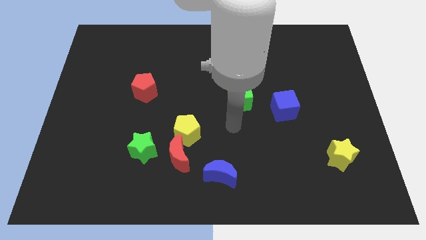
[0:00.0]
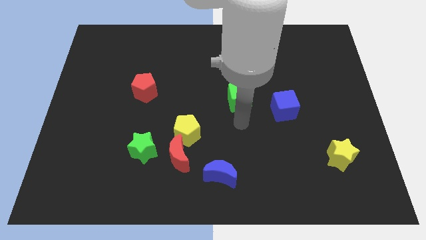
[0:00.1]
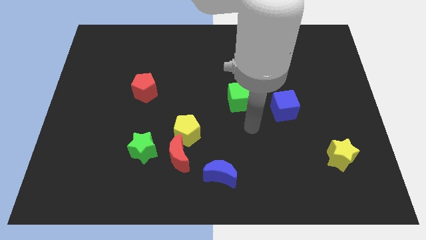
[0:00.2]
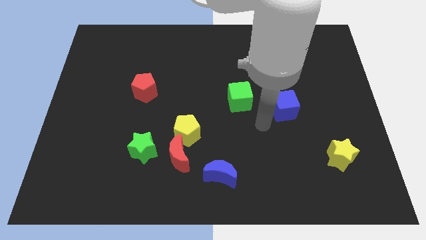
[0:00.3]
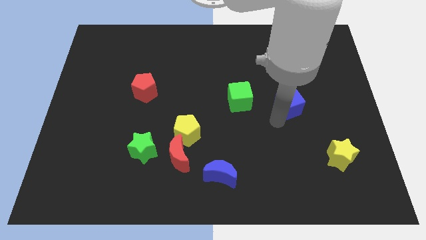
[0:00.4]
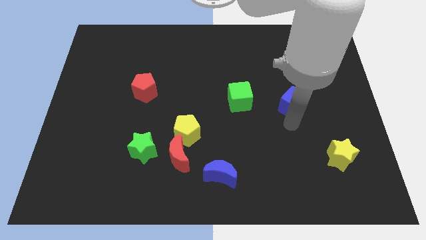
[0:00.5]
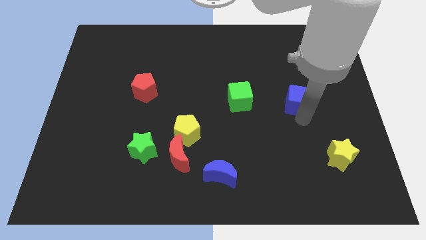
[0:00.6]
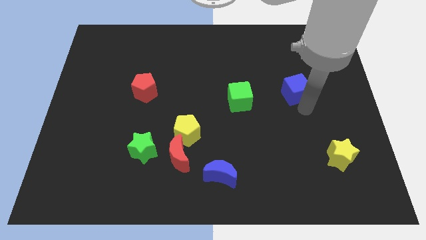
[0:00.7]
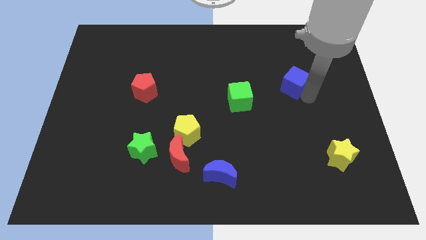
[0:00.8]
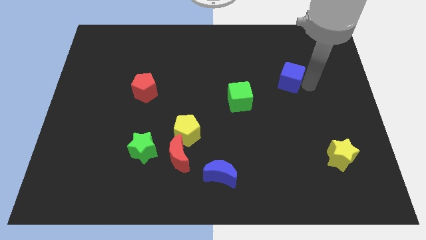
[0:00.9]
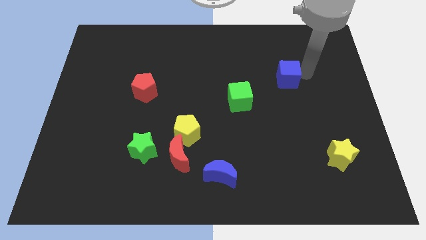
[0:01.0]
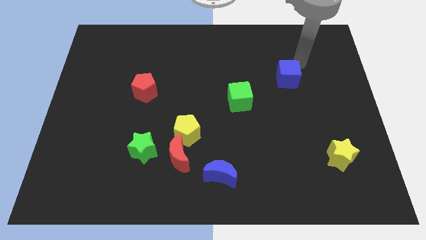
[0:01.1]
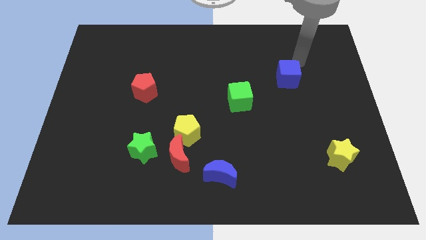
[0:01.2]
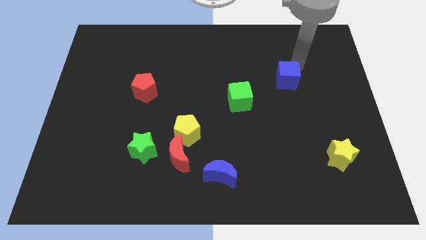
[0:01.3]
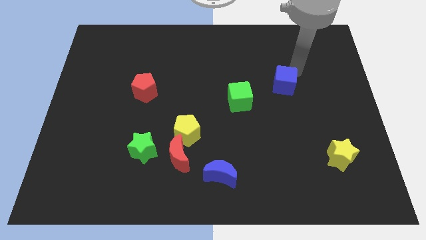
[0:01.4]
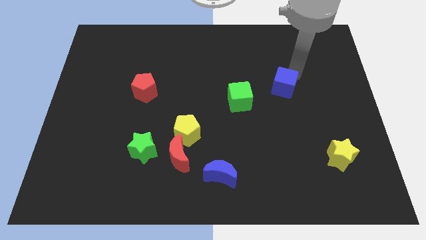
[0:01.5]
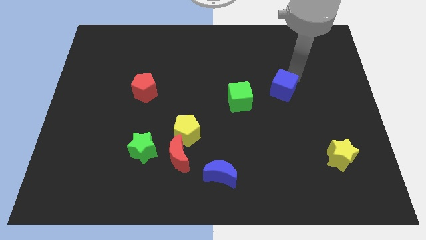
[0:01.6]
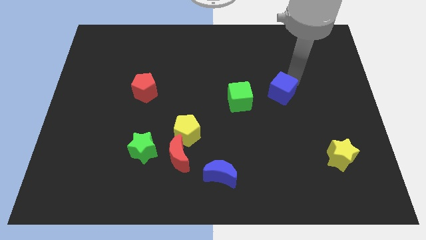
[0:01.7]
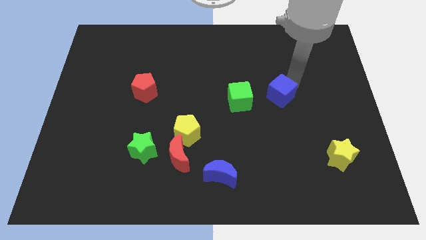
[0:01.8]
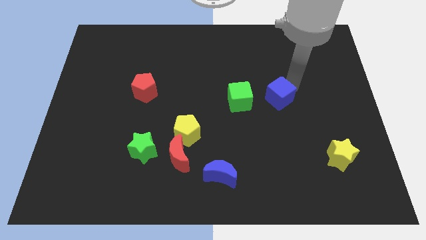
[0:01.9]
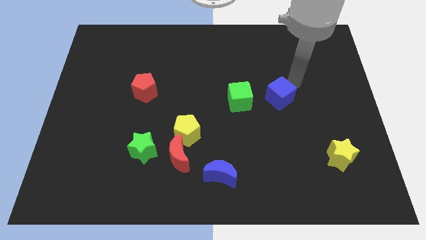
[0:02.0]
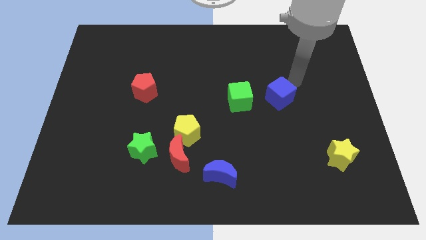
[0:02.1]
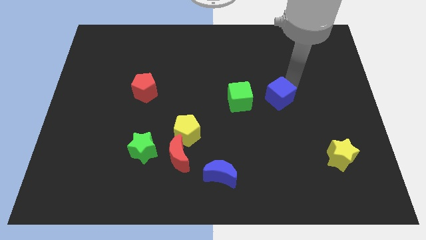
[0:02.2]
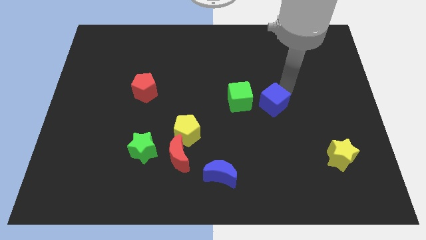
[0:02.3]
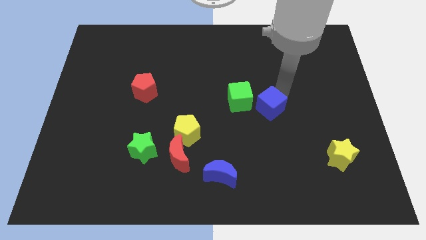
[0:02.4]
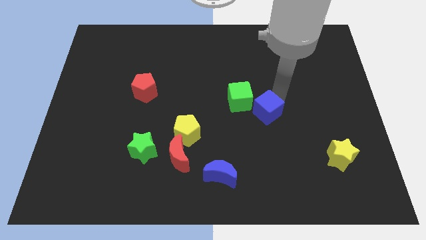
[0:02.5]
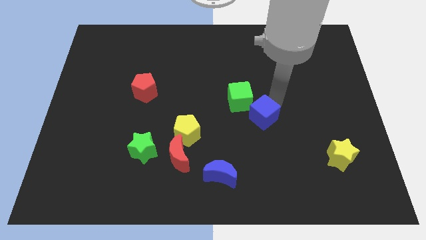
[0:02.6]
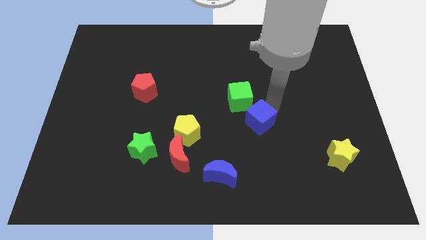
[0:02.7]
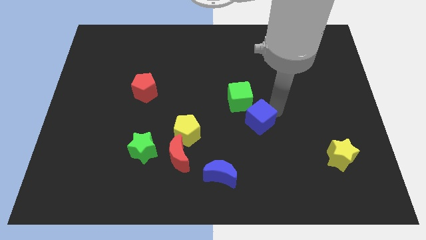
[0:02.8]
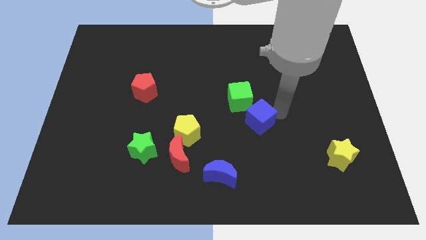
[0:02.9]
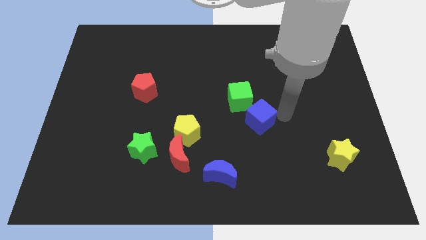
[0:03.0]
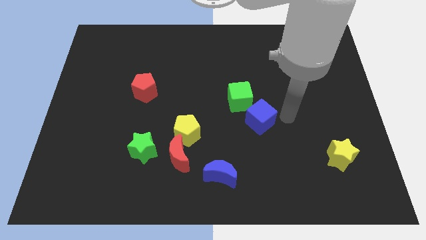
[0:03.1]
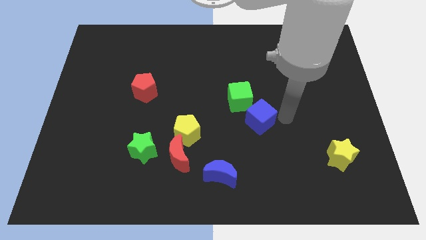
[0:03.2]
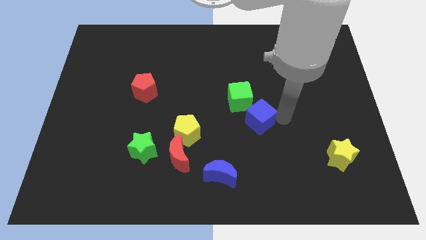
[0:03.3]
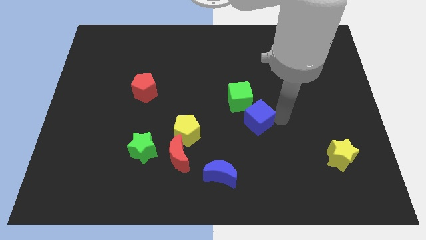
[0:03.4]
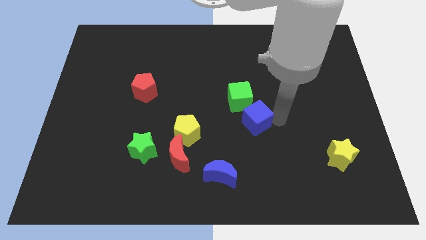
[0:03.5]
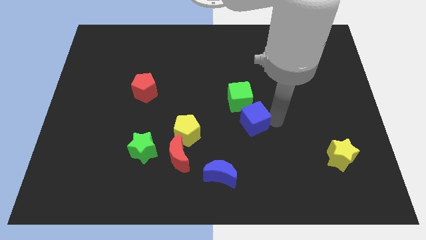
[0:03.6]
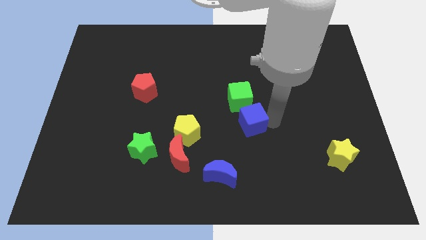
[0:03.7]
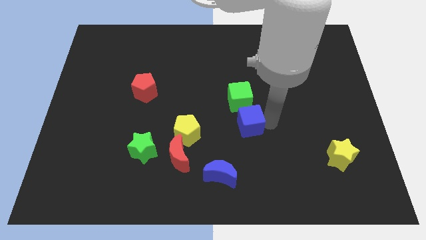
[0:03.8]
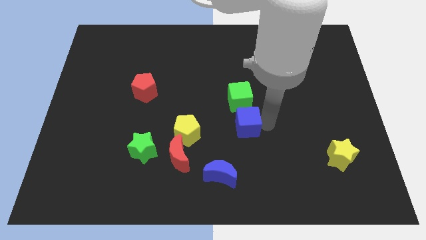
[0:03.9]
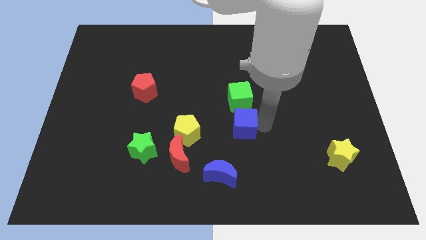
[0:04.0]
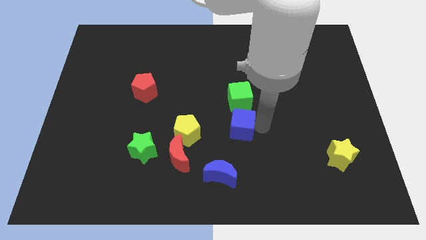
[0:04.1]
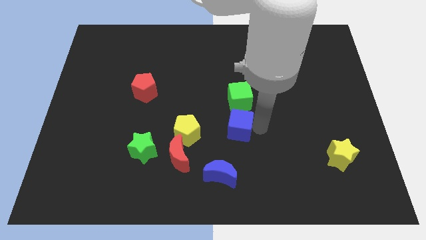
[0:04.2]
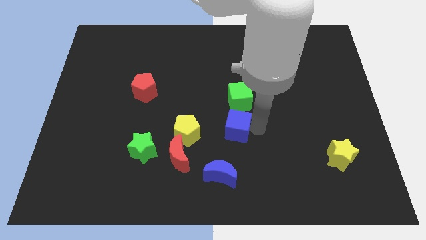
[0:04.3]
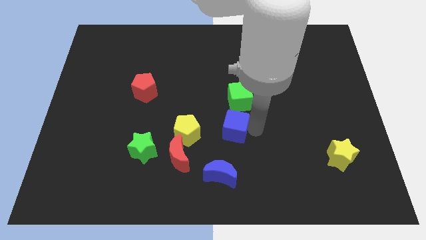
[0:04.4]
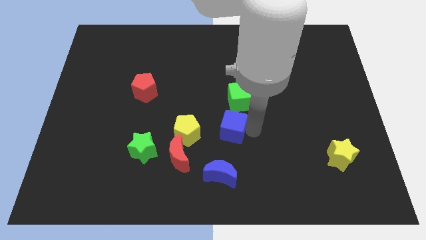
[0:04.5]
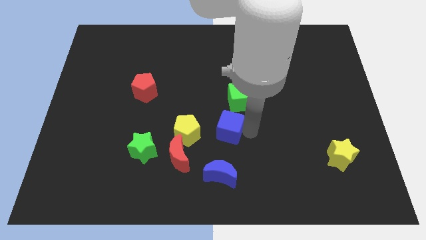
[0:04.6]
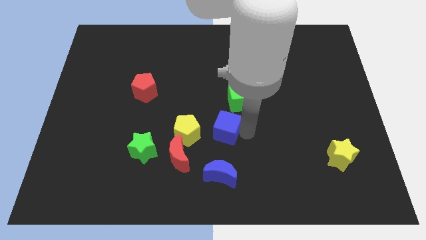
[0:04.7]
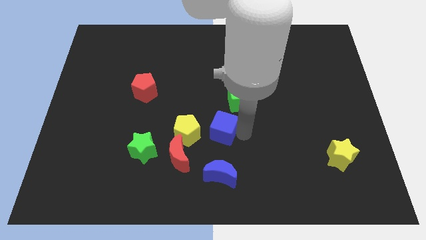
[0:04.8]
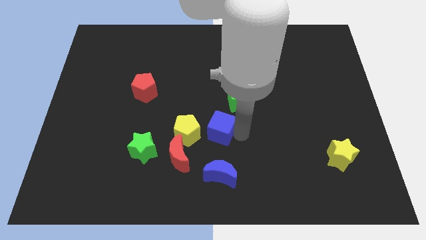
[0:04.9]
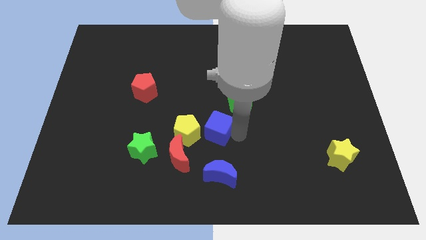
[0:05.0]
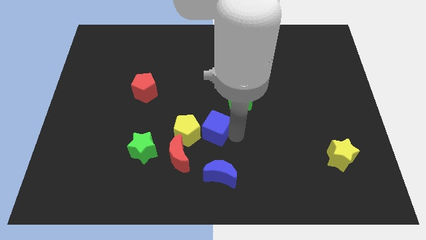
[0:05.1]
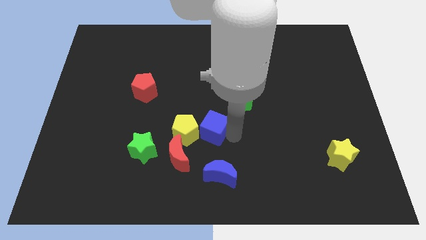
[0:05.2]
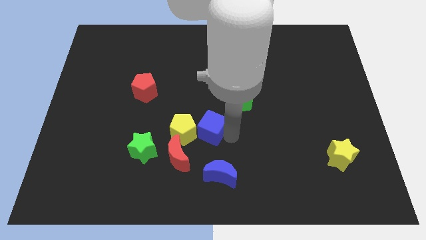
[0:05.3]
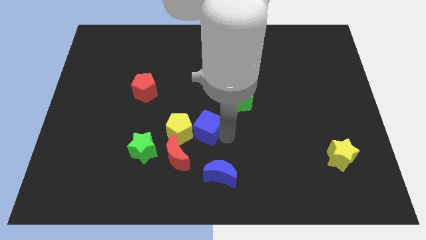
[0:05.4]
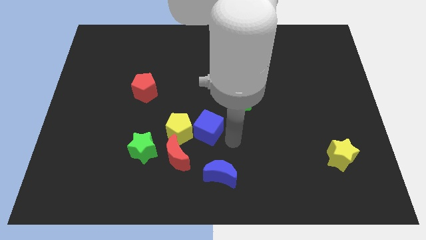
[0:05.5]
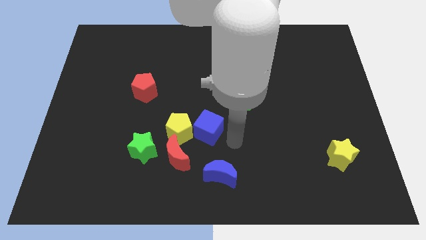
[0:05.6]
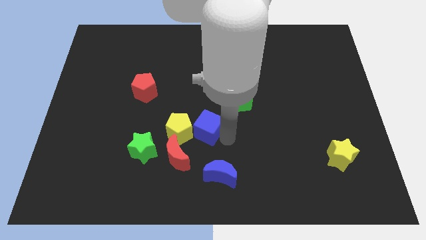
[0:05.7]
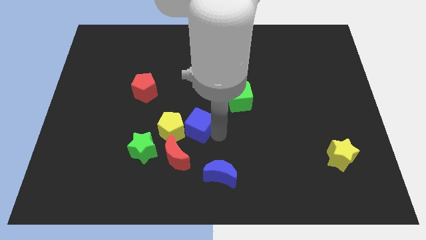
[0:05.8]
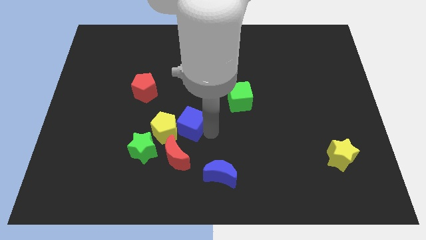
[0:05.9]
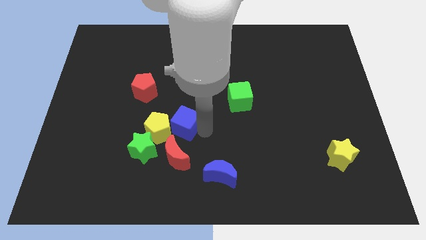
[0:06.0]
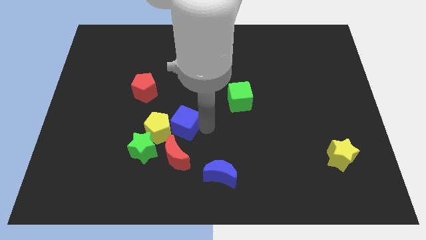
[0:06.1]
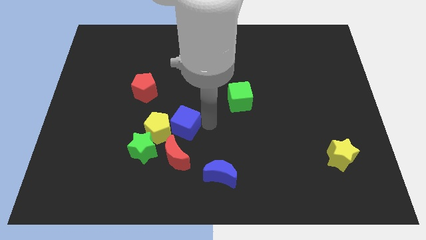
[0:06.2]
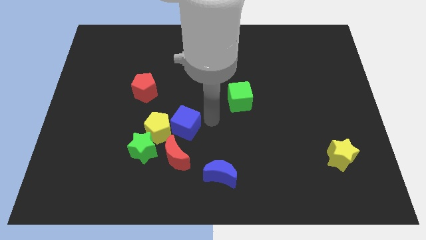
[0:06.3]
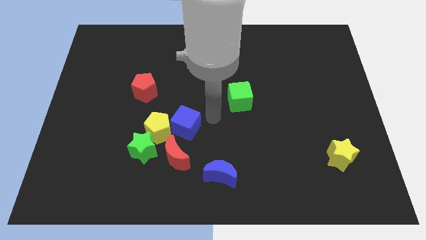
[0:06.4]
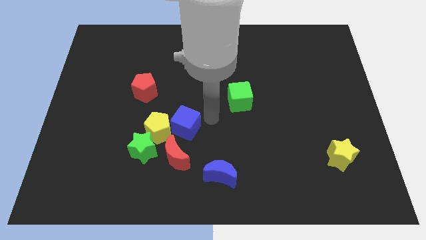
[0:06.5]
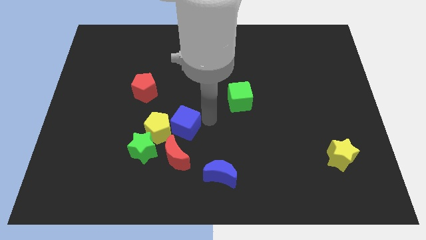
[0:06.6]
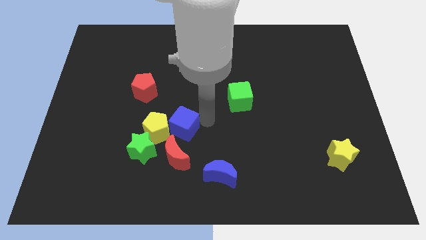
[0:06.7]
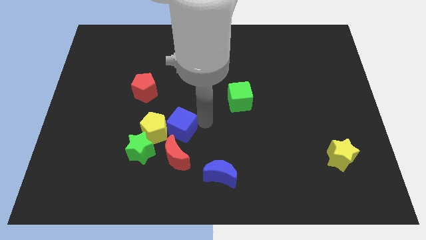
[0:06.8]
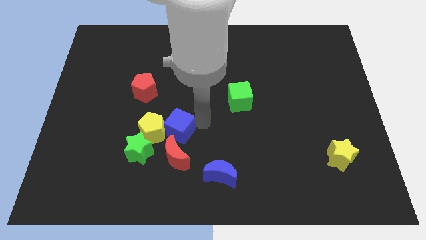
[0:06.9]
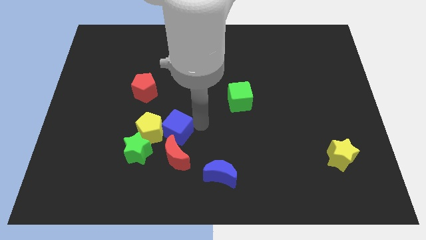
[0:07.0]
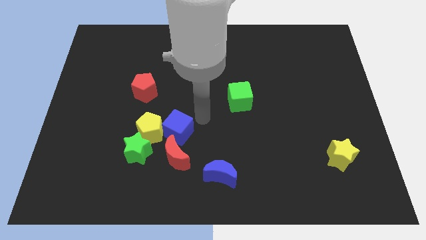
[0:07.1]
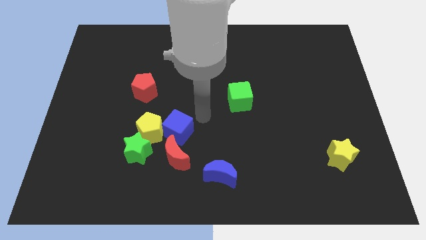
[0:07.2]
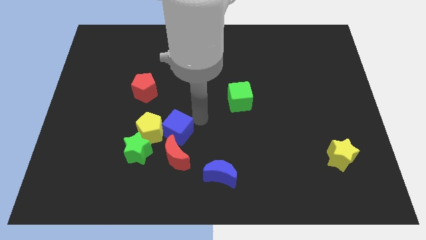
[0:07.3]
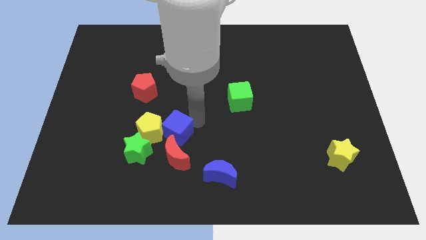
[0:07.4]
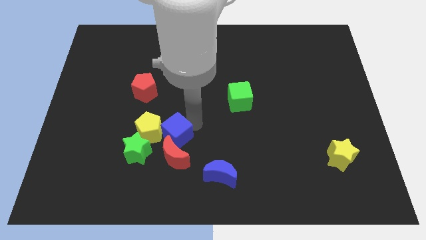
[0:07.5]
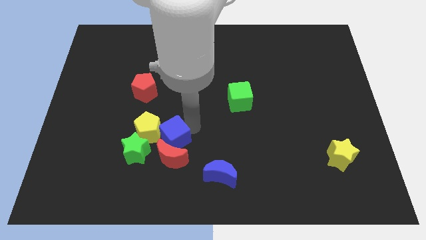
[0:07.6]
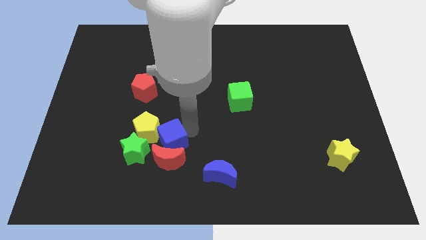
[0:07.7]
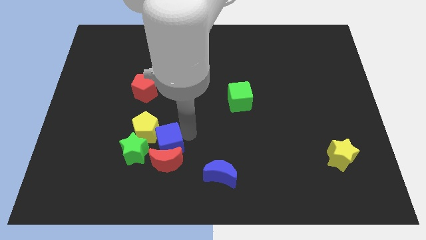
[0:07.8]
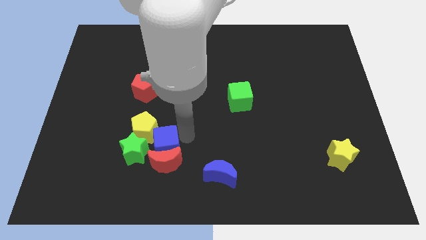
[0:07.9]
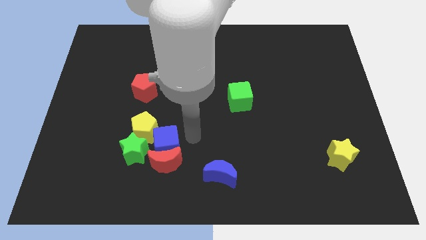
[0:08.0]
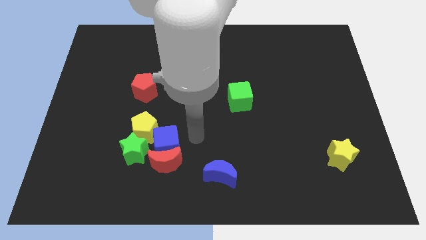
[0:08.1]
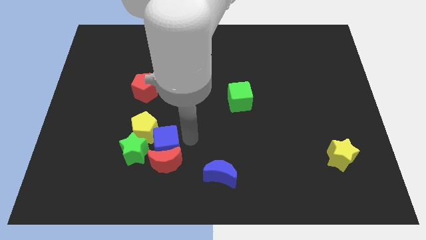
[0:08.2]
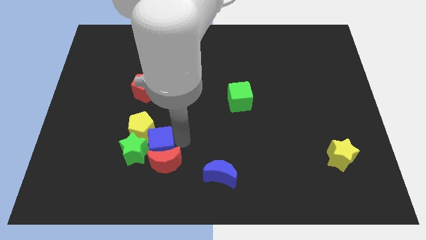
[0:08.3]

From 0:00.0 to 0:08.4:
move the blue cube next to the green star
